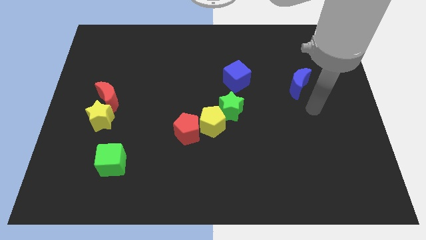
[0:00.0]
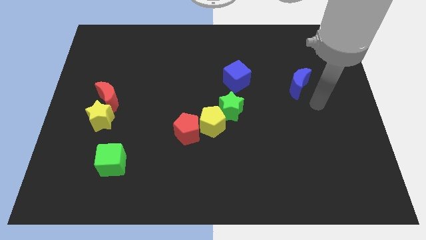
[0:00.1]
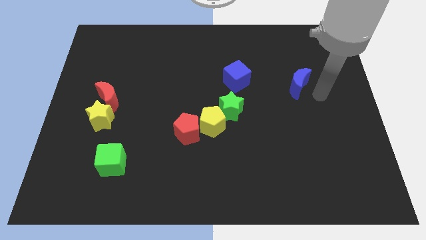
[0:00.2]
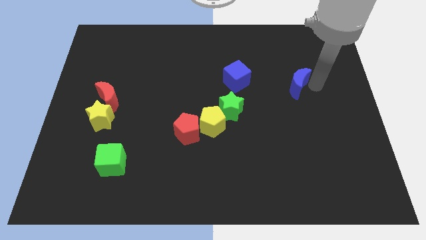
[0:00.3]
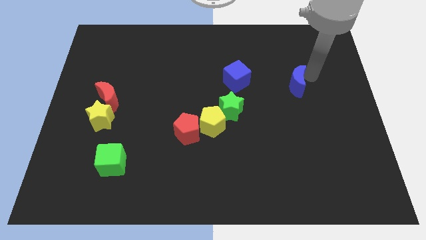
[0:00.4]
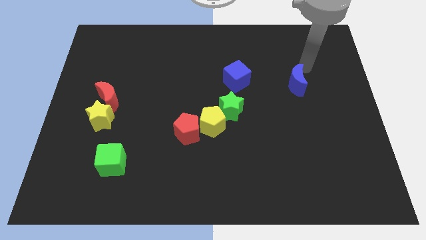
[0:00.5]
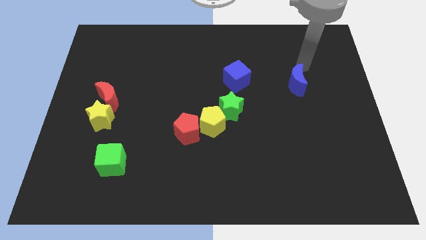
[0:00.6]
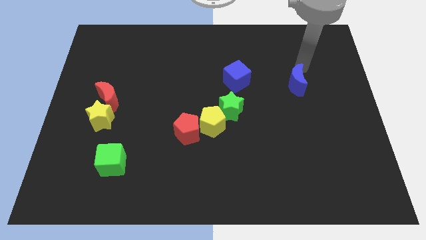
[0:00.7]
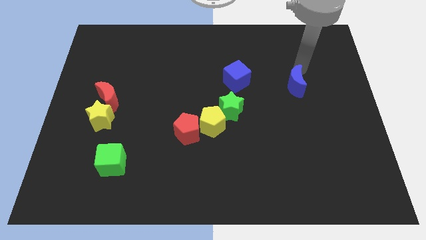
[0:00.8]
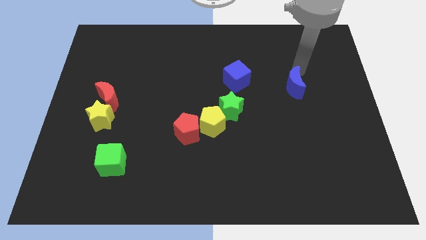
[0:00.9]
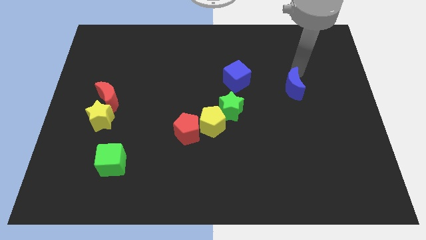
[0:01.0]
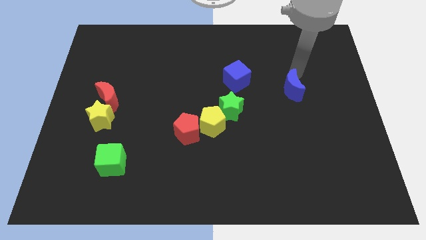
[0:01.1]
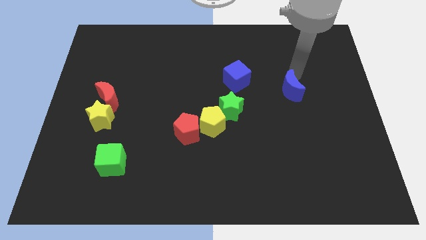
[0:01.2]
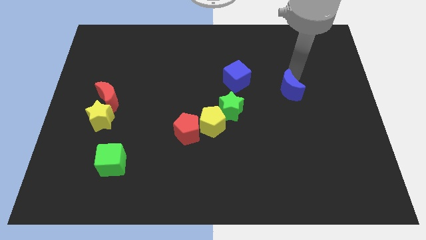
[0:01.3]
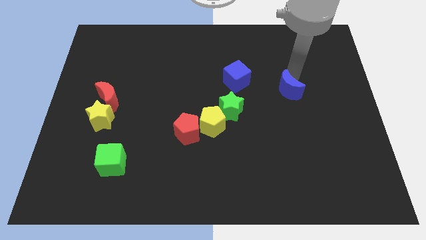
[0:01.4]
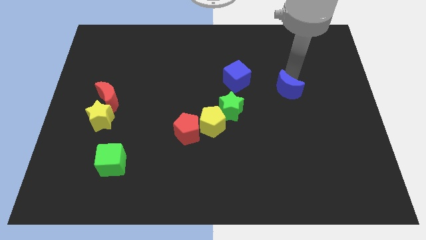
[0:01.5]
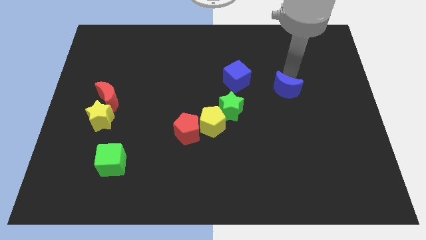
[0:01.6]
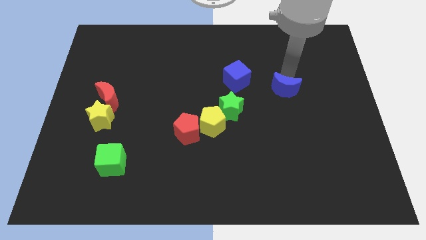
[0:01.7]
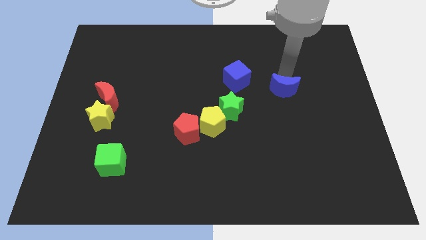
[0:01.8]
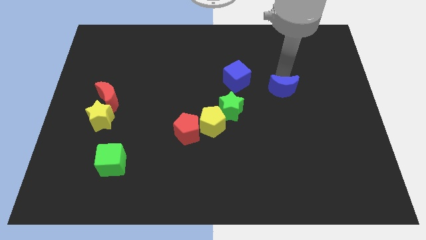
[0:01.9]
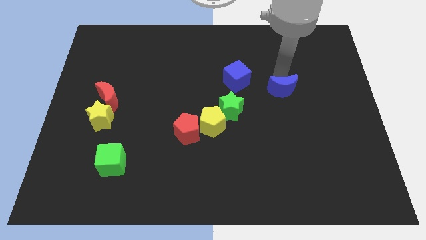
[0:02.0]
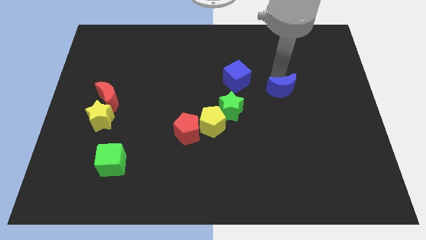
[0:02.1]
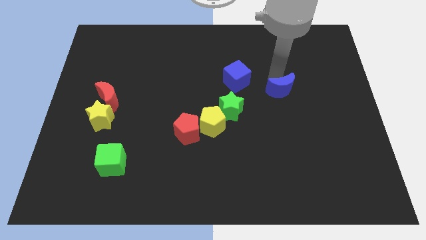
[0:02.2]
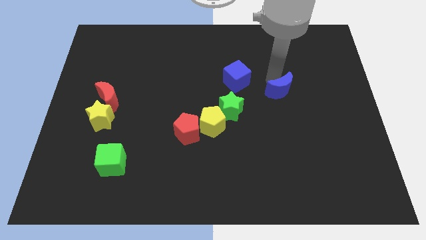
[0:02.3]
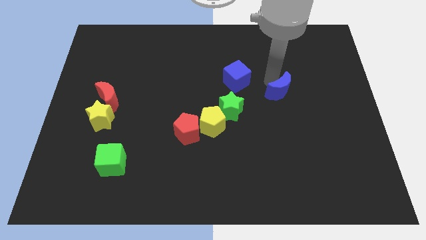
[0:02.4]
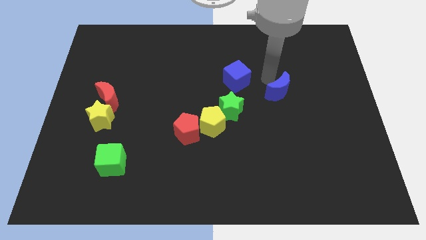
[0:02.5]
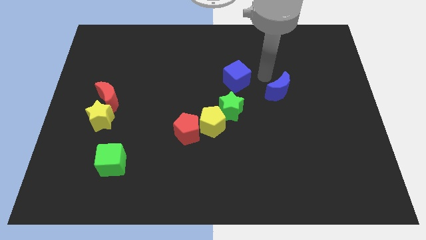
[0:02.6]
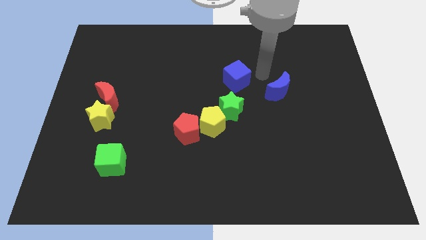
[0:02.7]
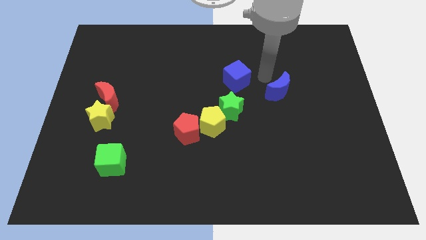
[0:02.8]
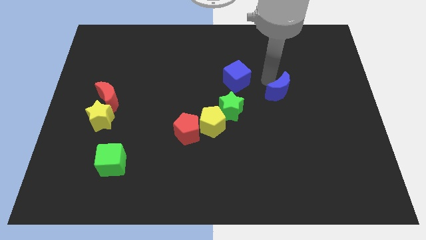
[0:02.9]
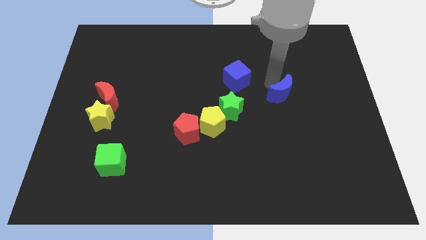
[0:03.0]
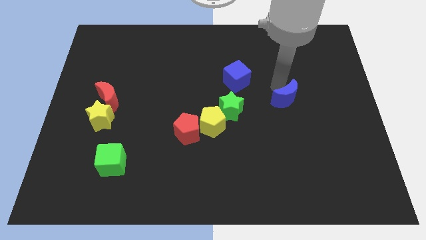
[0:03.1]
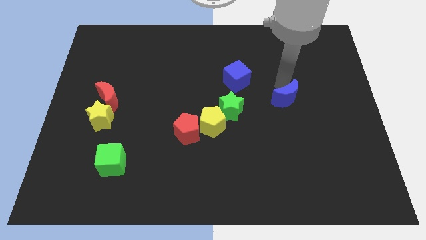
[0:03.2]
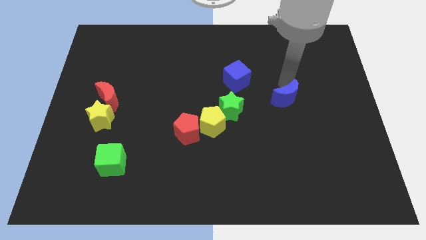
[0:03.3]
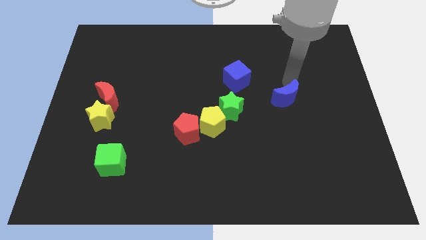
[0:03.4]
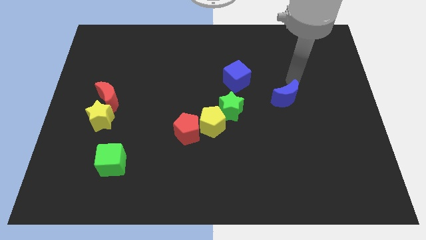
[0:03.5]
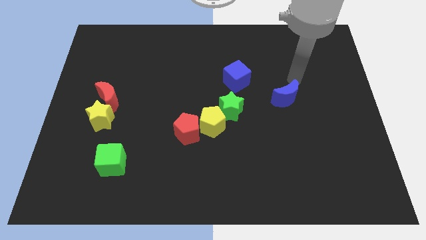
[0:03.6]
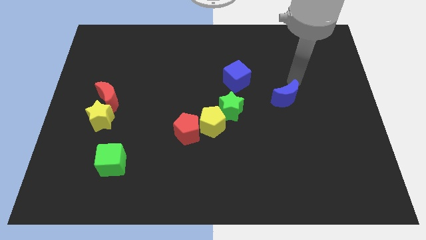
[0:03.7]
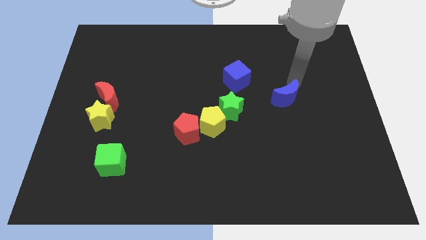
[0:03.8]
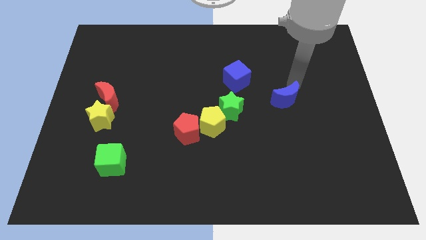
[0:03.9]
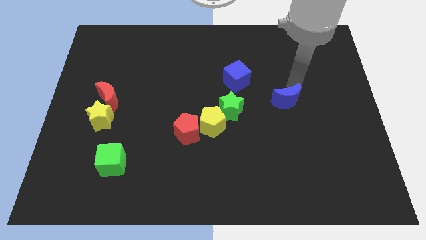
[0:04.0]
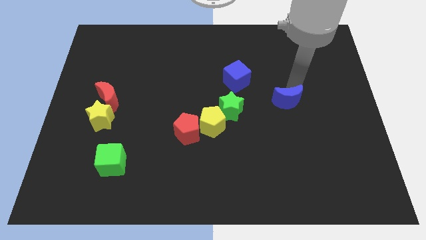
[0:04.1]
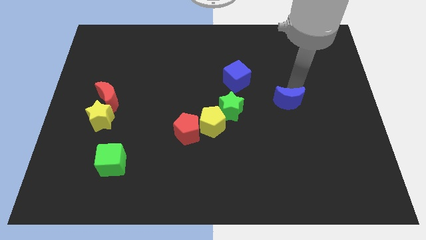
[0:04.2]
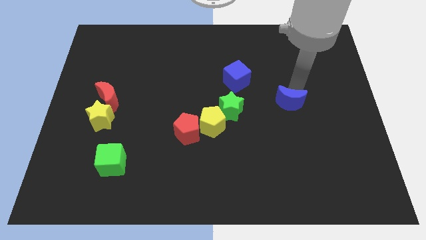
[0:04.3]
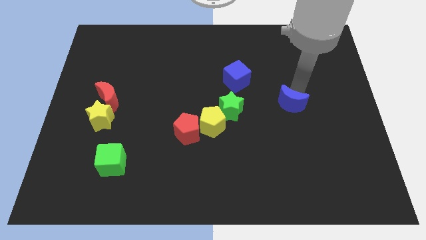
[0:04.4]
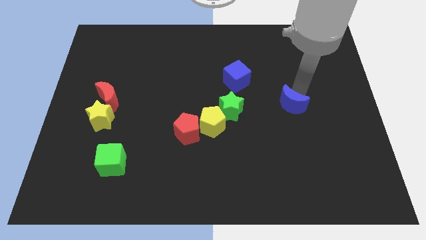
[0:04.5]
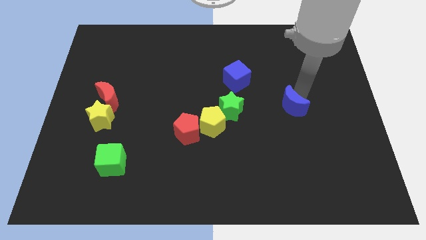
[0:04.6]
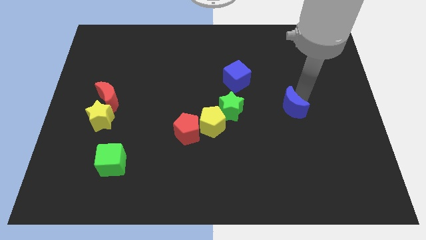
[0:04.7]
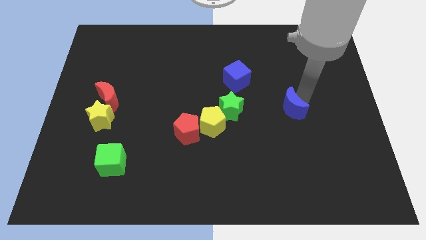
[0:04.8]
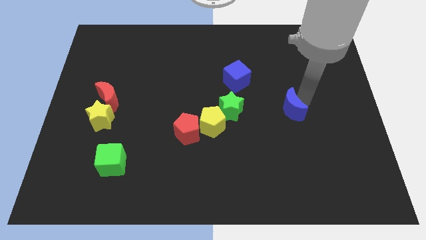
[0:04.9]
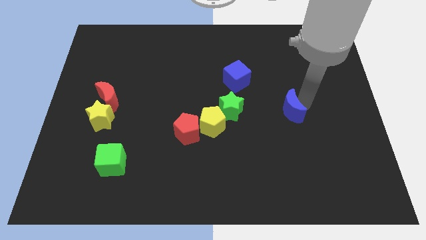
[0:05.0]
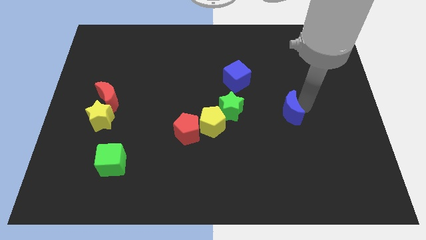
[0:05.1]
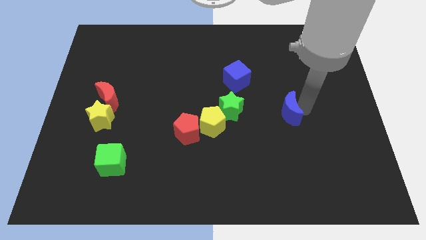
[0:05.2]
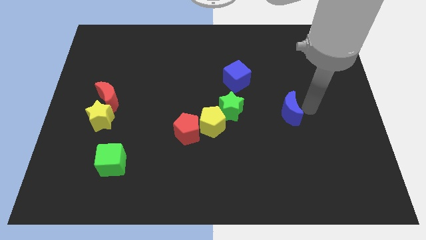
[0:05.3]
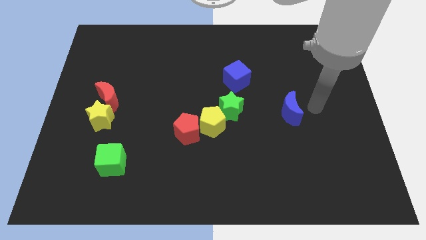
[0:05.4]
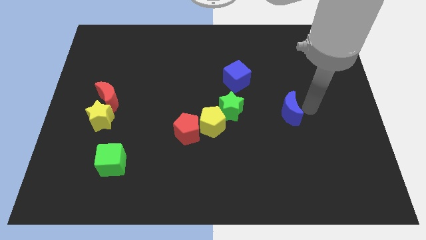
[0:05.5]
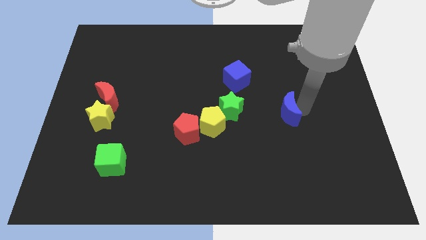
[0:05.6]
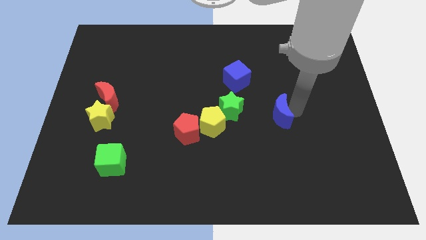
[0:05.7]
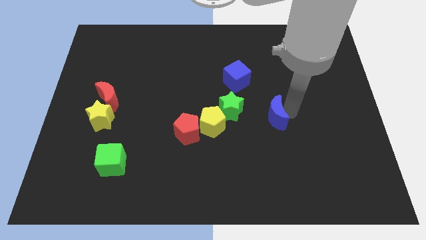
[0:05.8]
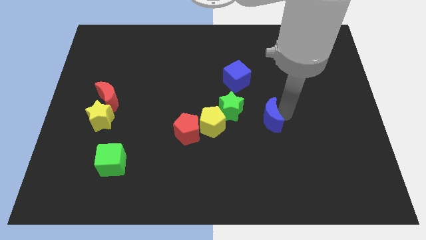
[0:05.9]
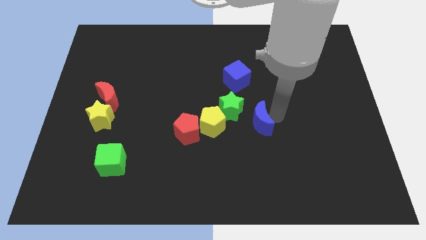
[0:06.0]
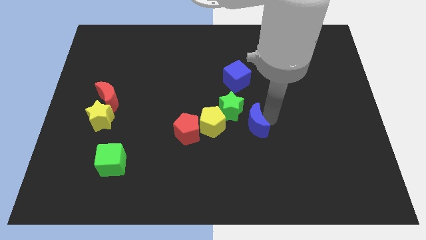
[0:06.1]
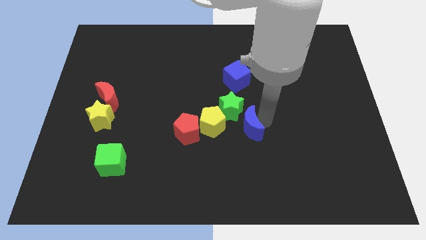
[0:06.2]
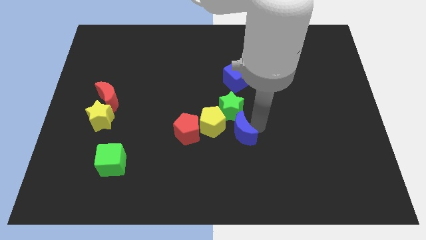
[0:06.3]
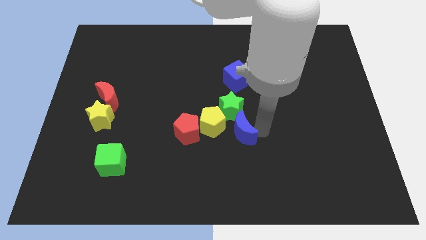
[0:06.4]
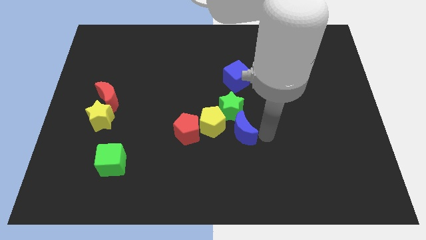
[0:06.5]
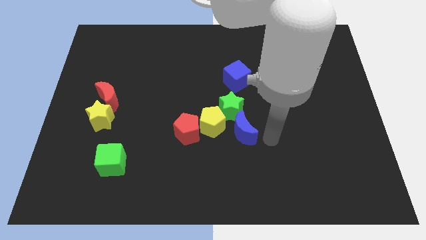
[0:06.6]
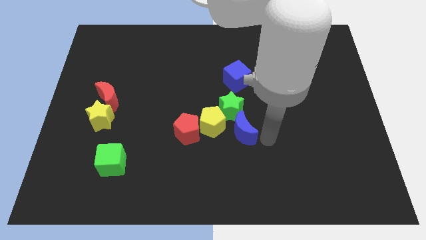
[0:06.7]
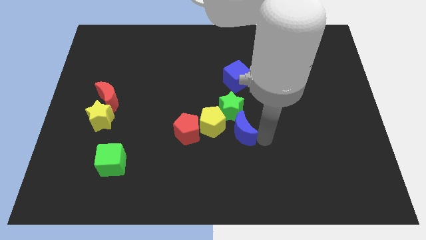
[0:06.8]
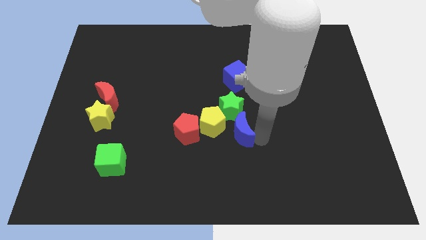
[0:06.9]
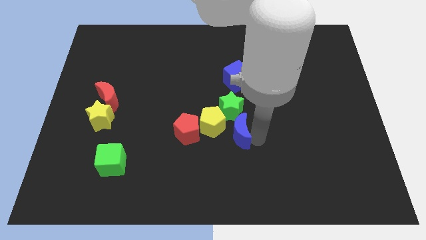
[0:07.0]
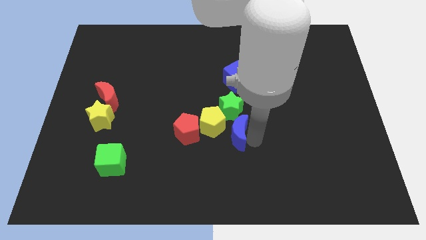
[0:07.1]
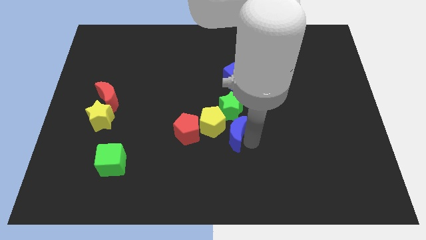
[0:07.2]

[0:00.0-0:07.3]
push the blue moon to the yellow pentagon
